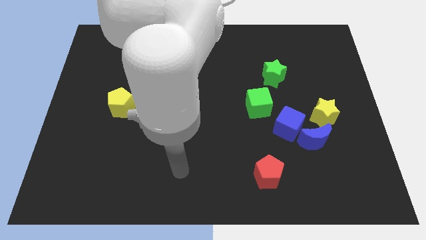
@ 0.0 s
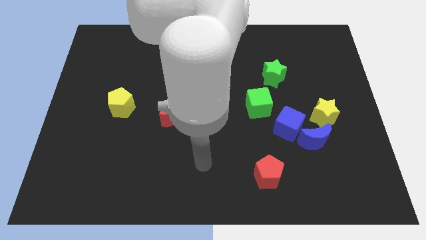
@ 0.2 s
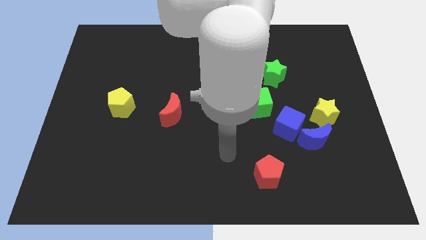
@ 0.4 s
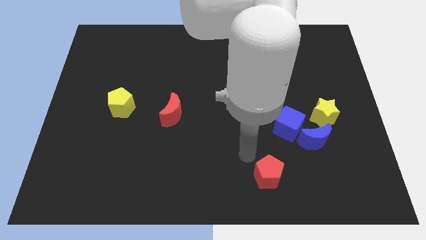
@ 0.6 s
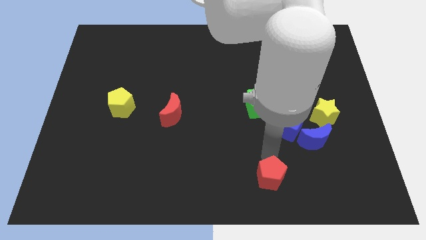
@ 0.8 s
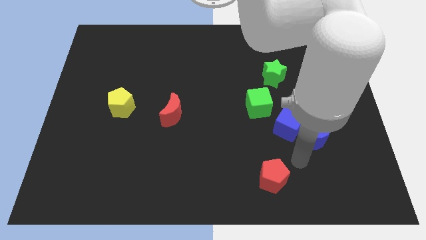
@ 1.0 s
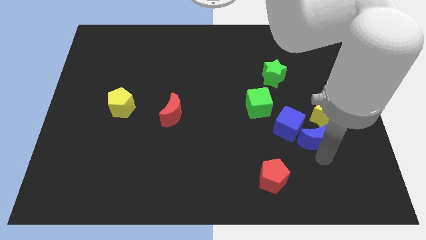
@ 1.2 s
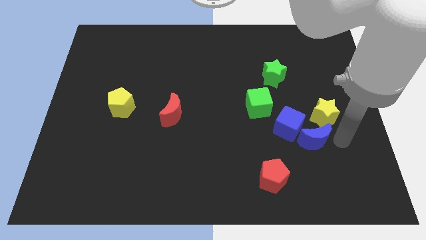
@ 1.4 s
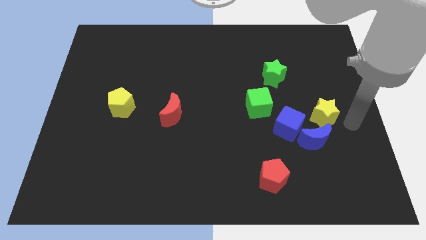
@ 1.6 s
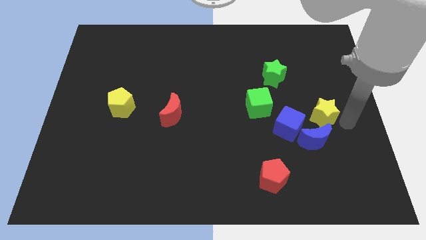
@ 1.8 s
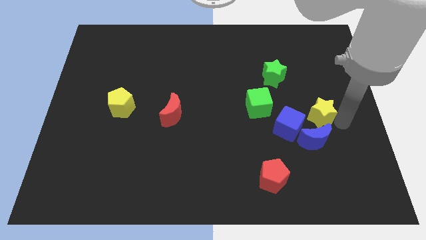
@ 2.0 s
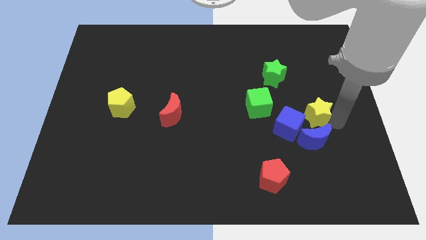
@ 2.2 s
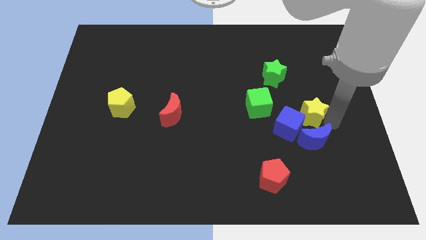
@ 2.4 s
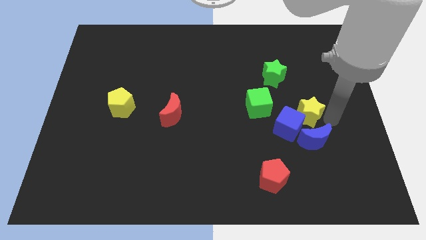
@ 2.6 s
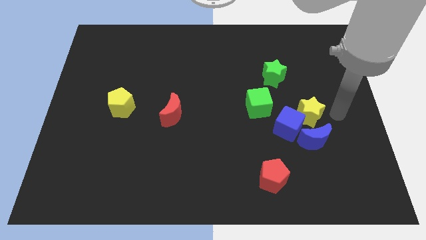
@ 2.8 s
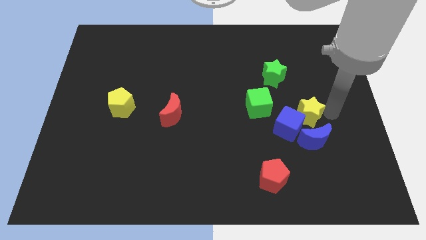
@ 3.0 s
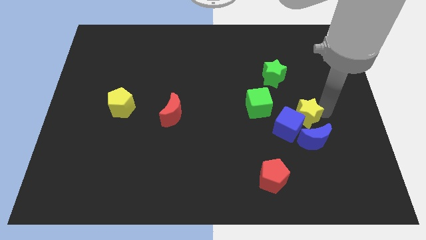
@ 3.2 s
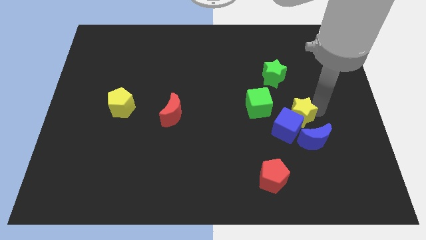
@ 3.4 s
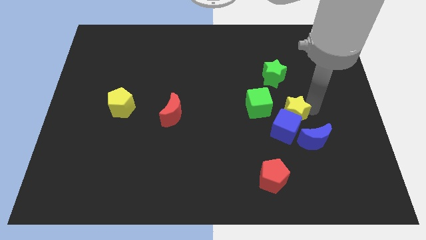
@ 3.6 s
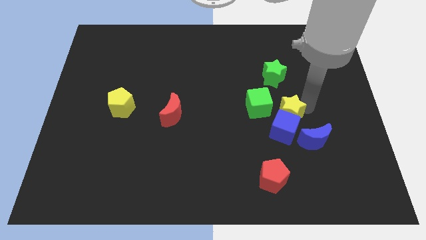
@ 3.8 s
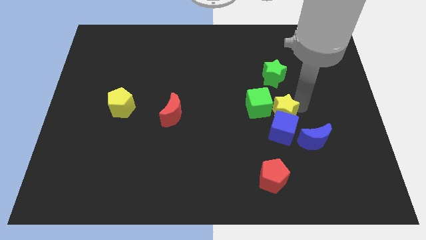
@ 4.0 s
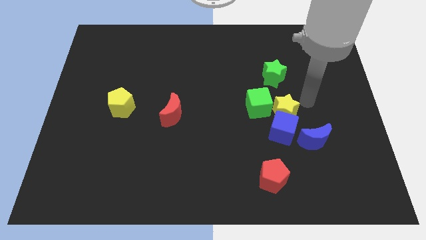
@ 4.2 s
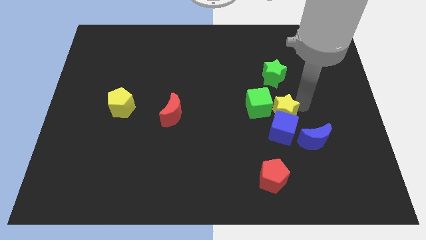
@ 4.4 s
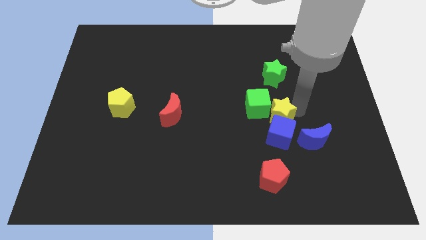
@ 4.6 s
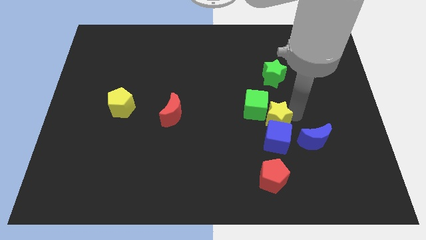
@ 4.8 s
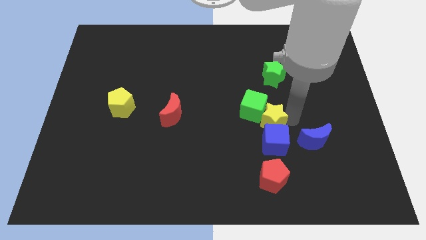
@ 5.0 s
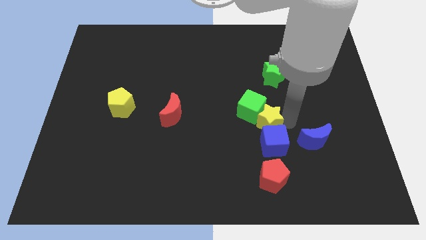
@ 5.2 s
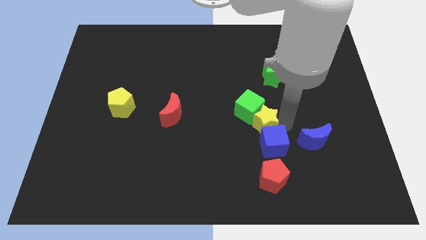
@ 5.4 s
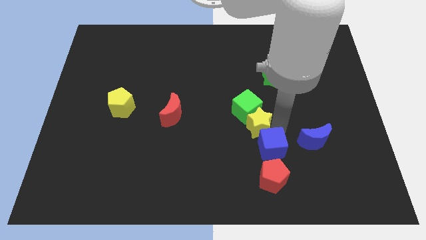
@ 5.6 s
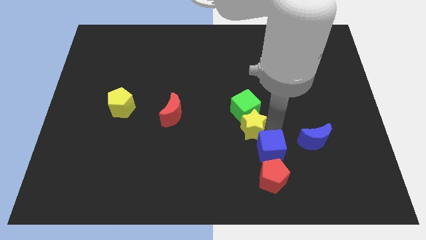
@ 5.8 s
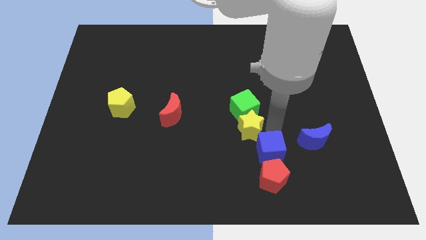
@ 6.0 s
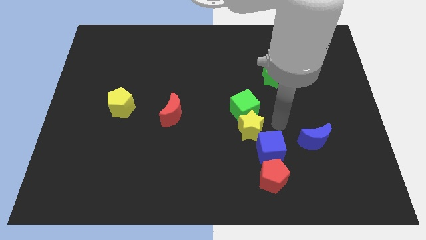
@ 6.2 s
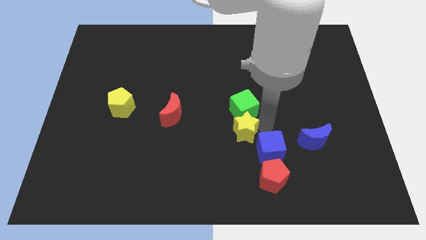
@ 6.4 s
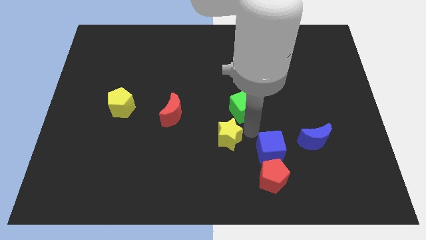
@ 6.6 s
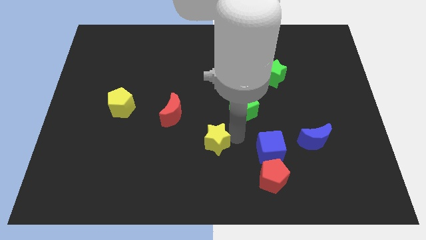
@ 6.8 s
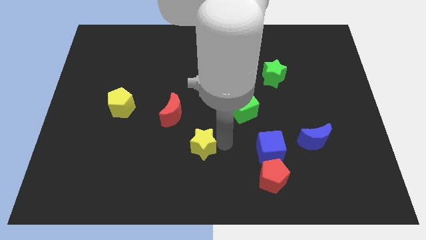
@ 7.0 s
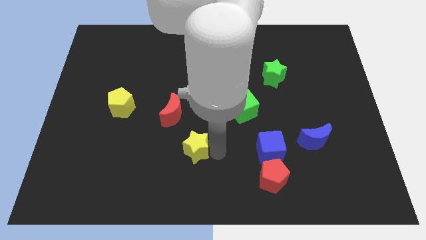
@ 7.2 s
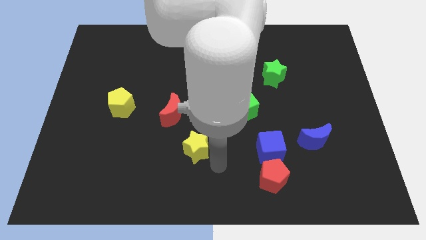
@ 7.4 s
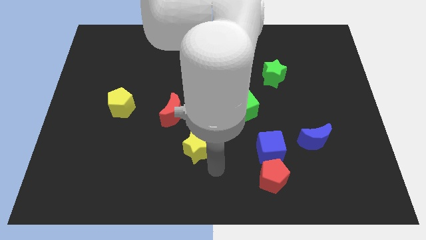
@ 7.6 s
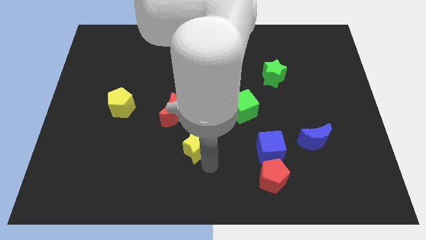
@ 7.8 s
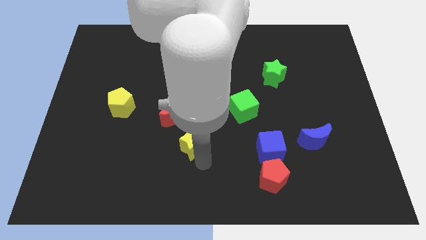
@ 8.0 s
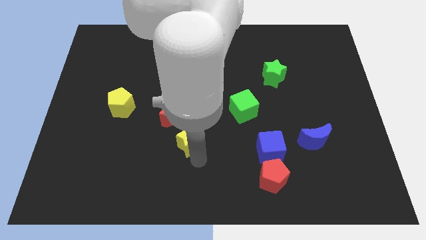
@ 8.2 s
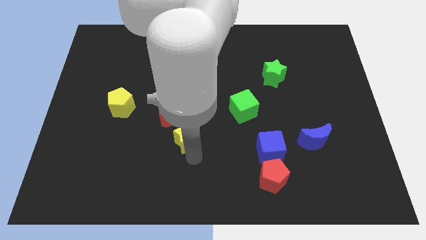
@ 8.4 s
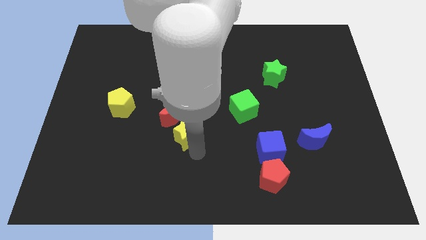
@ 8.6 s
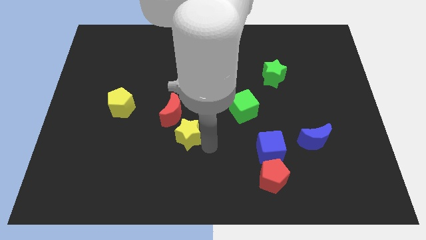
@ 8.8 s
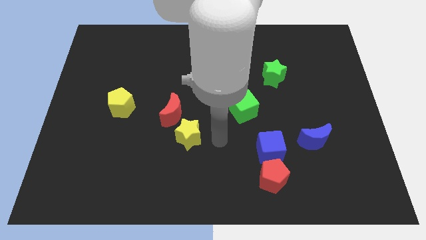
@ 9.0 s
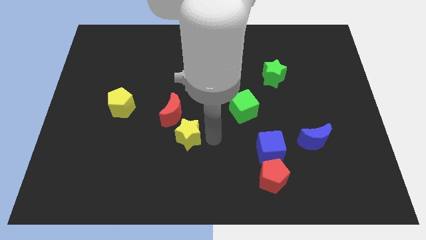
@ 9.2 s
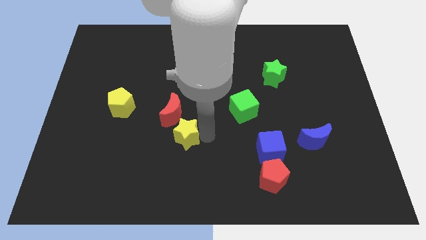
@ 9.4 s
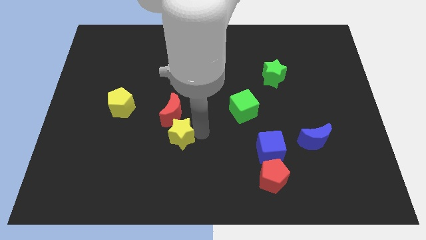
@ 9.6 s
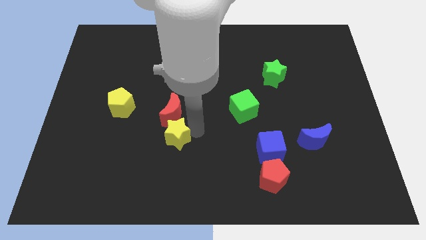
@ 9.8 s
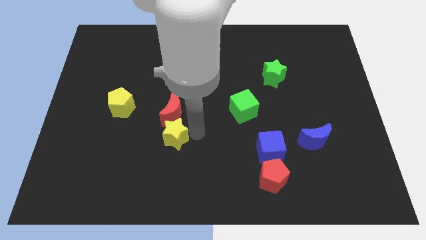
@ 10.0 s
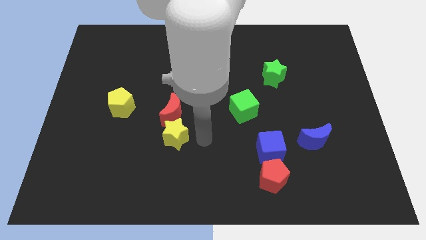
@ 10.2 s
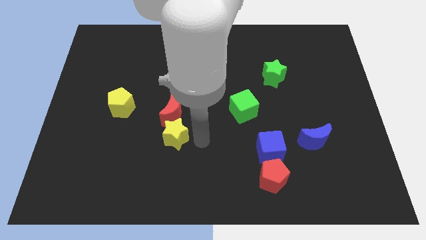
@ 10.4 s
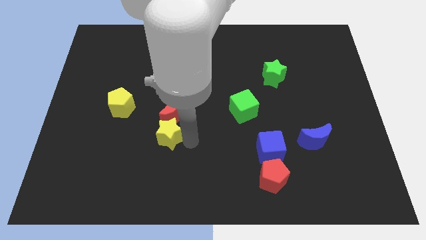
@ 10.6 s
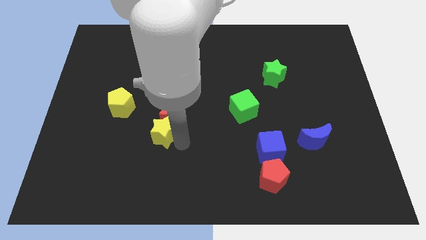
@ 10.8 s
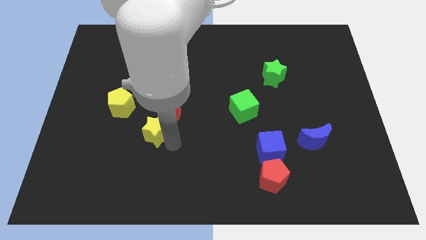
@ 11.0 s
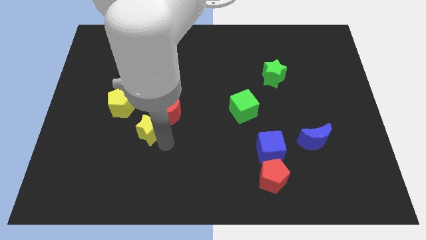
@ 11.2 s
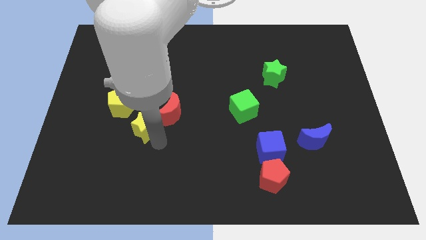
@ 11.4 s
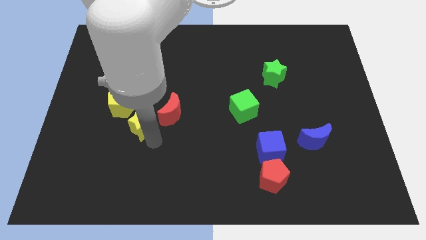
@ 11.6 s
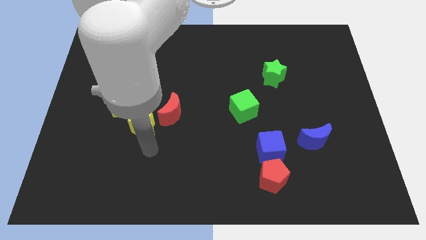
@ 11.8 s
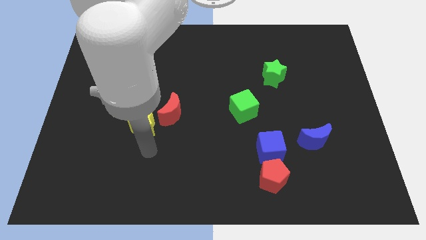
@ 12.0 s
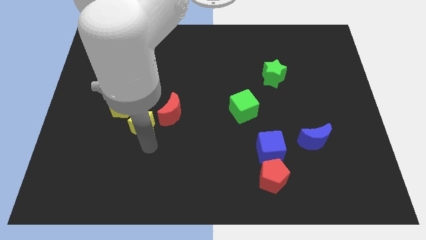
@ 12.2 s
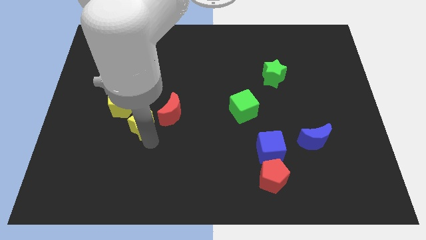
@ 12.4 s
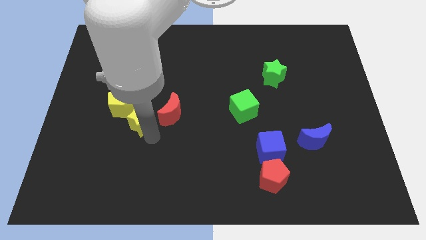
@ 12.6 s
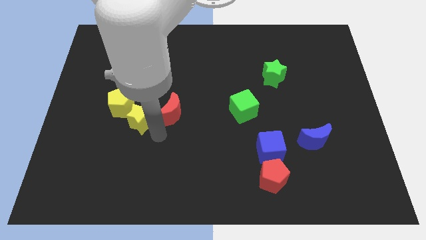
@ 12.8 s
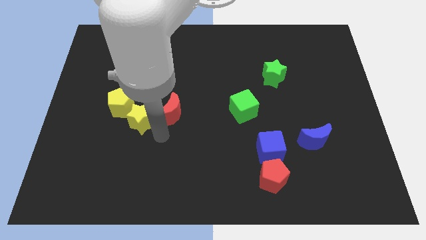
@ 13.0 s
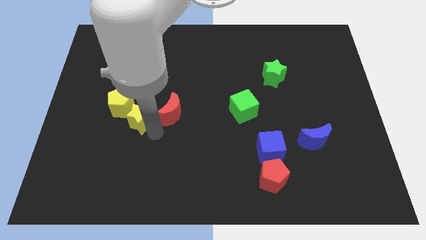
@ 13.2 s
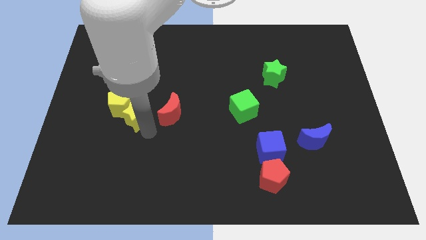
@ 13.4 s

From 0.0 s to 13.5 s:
slide the yellow star close to the yellow pentagon
